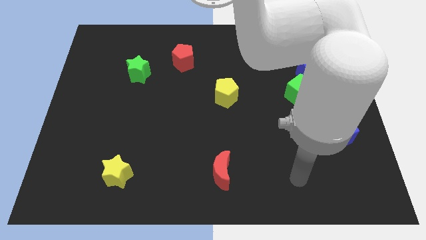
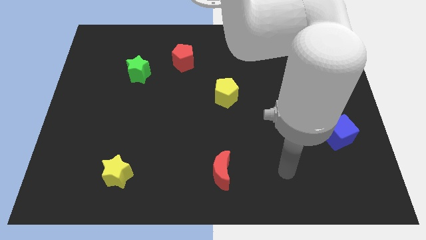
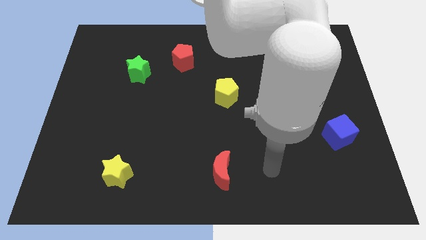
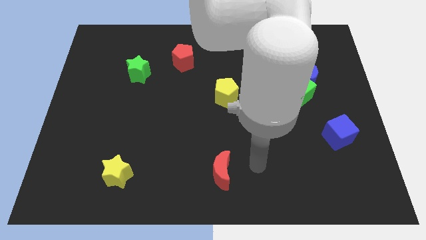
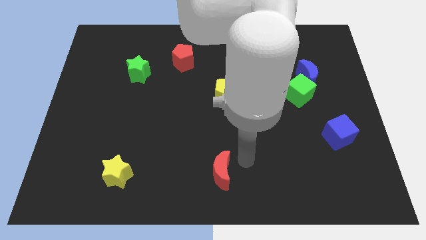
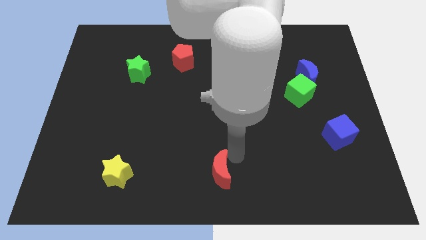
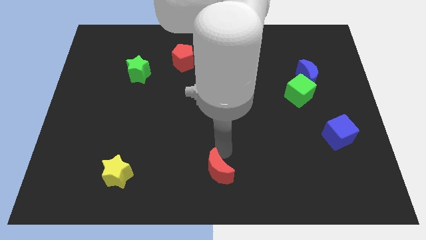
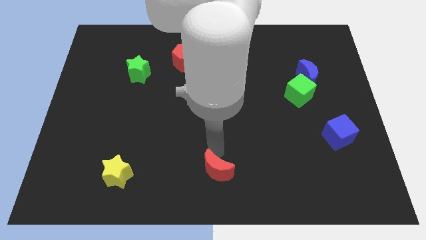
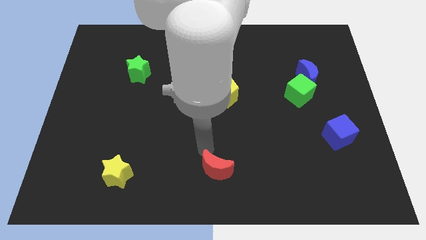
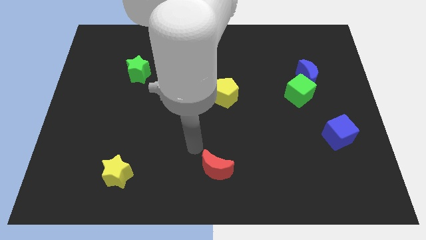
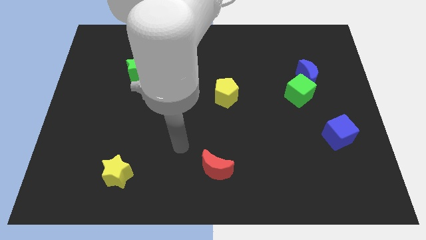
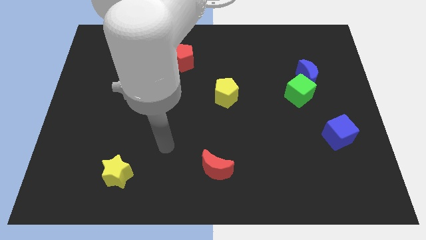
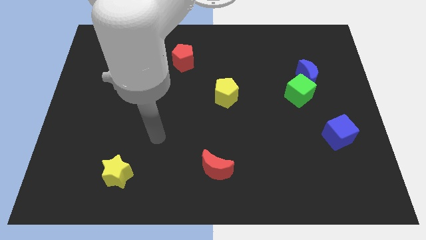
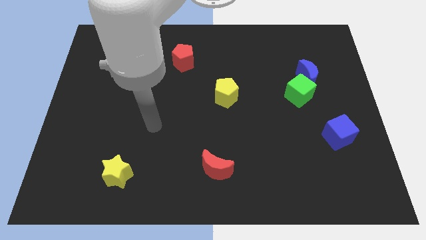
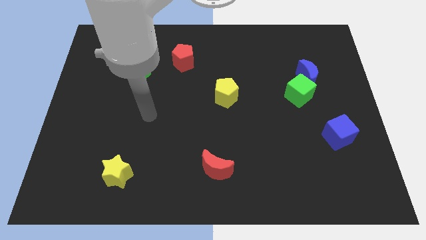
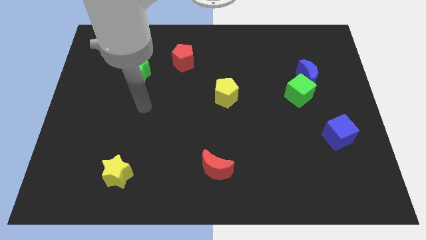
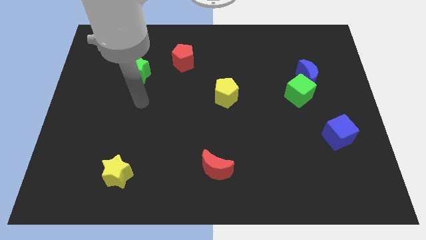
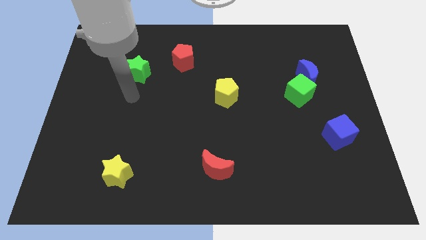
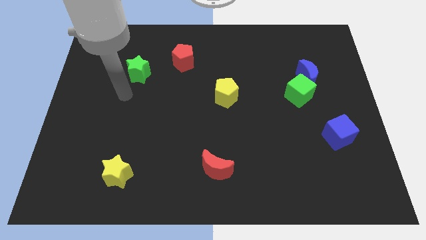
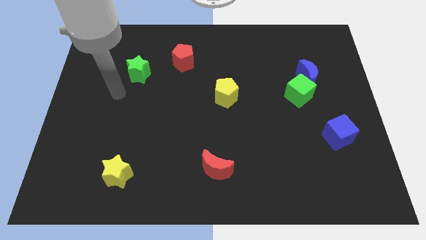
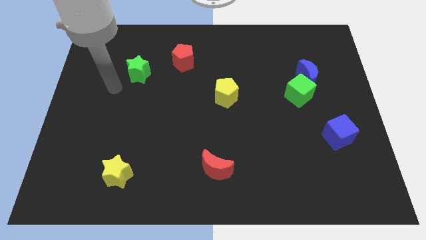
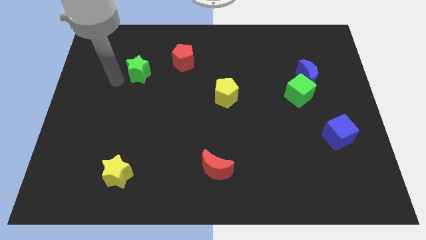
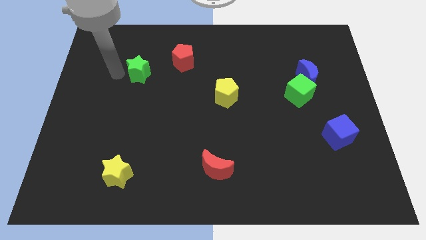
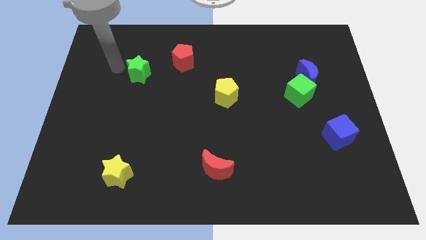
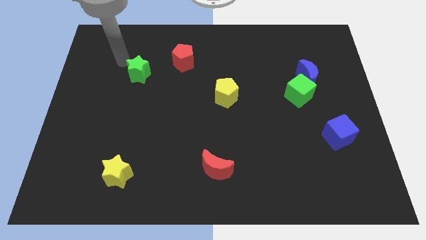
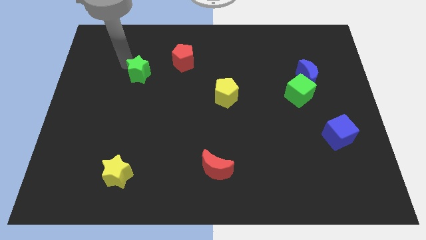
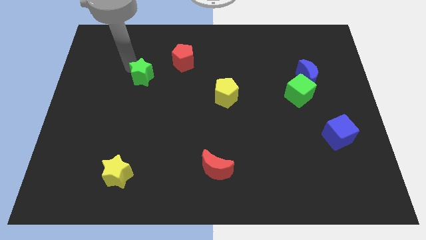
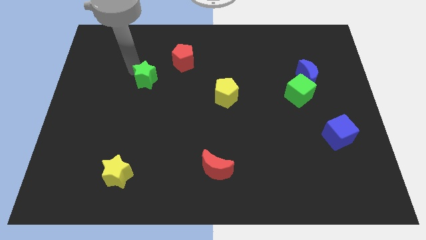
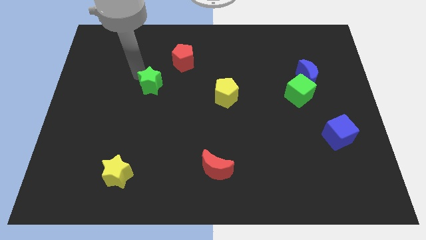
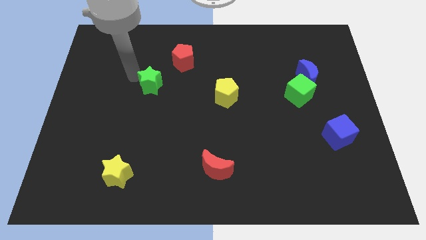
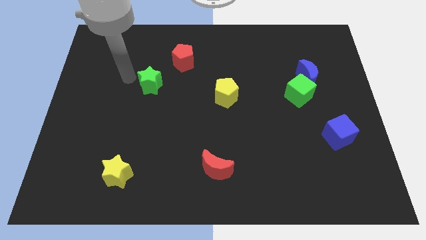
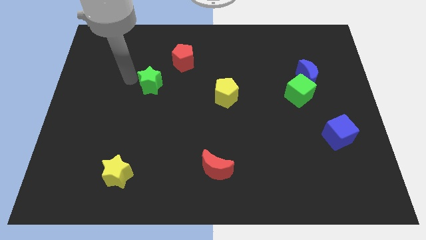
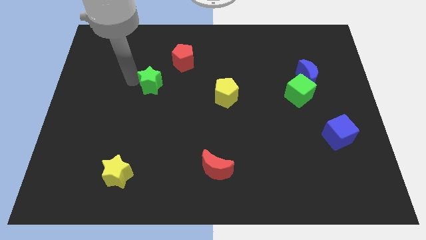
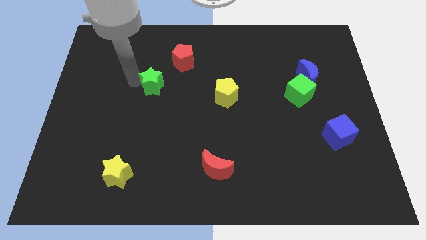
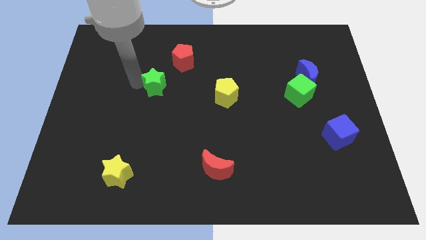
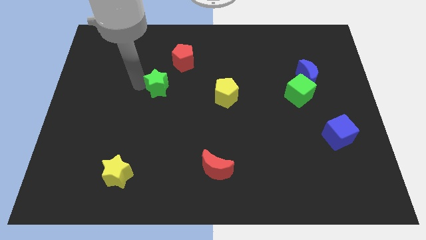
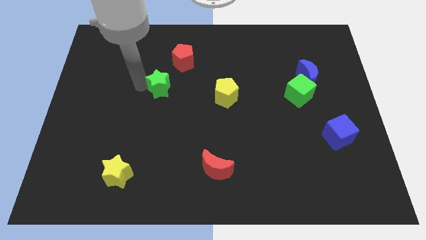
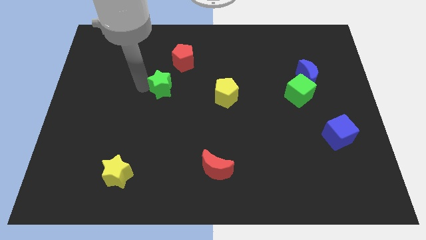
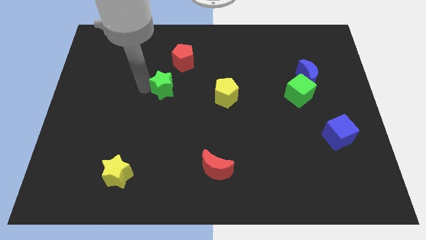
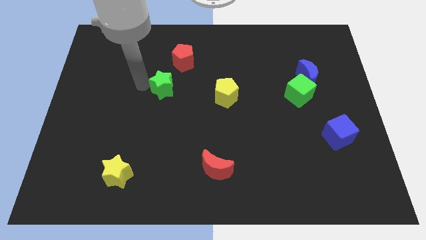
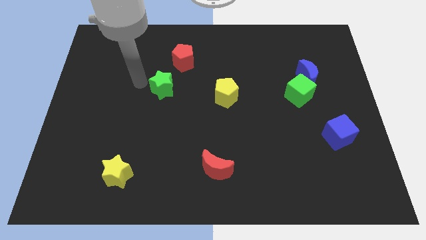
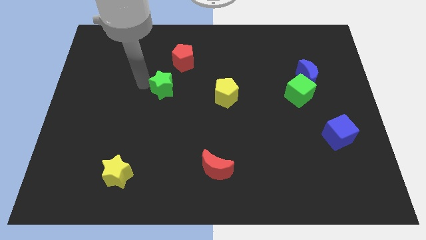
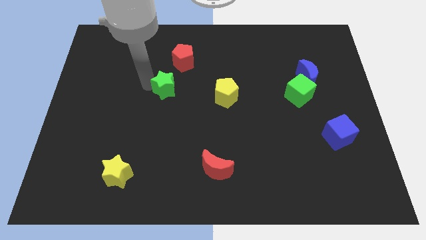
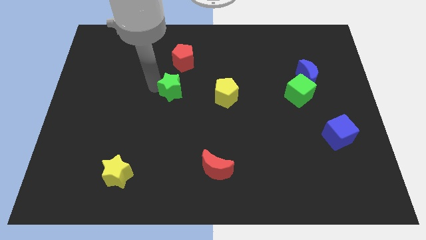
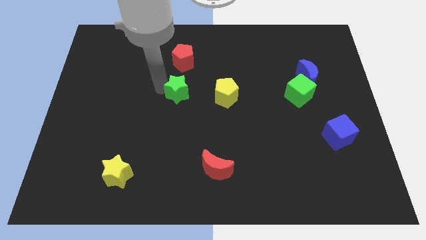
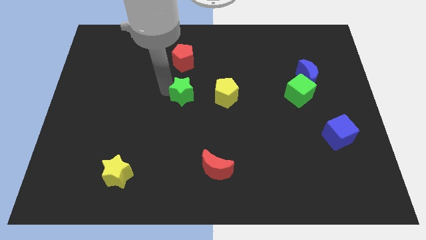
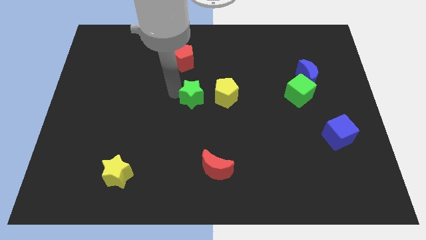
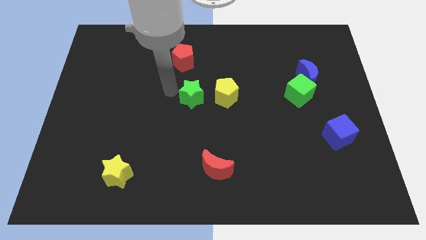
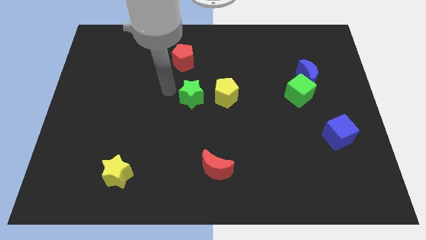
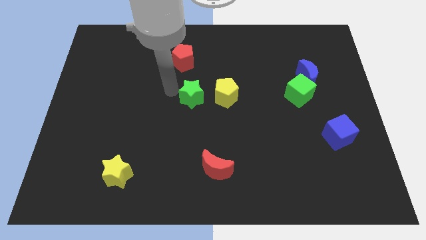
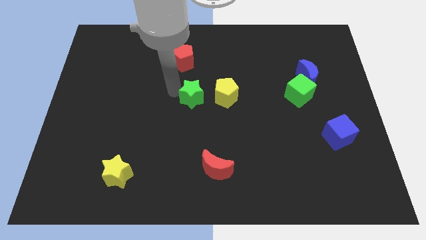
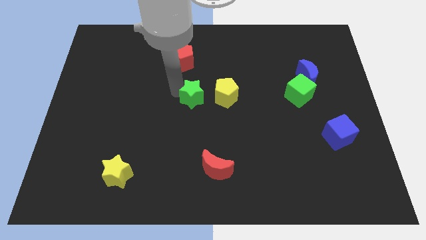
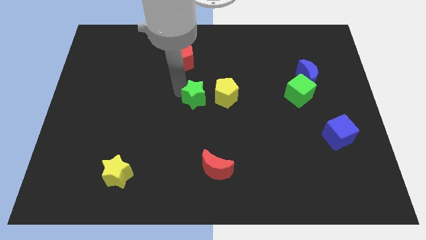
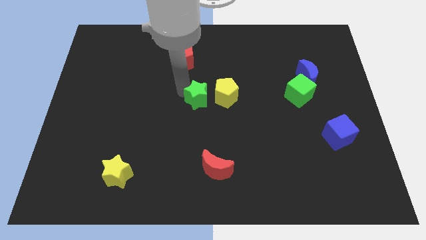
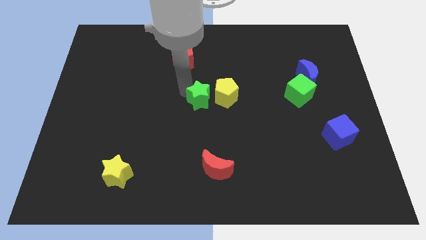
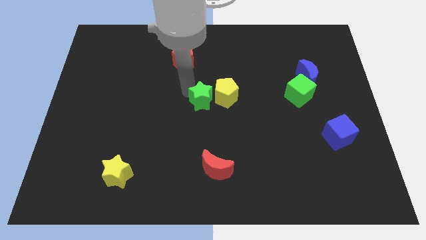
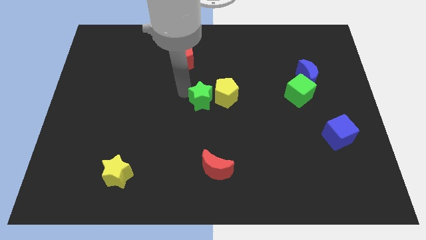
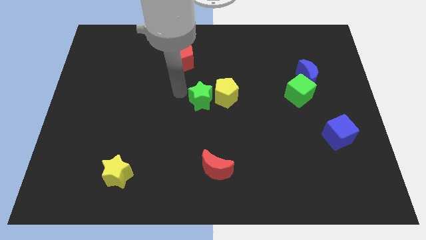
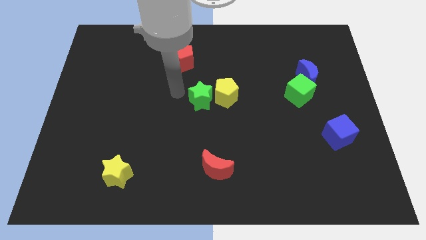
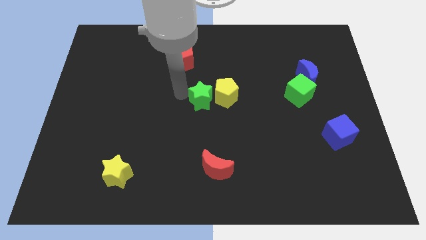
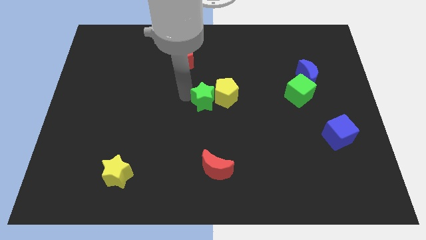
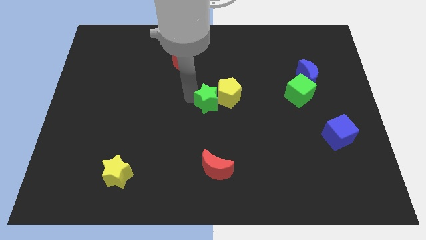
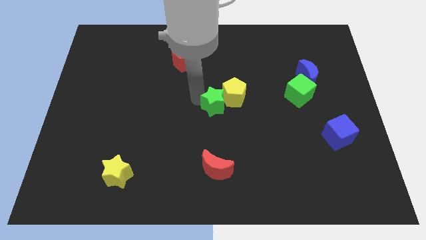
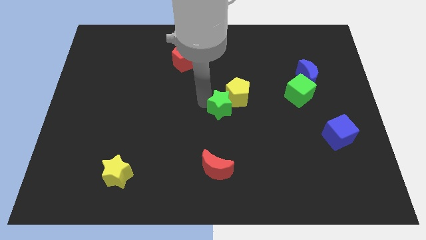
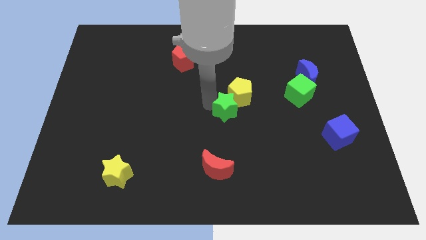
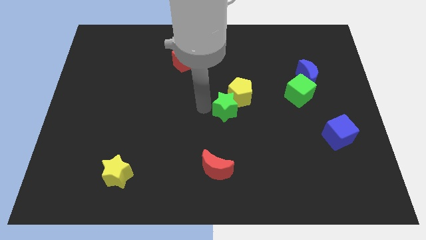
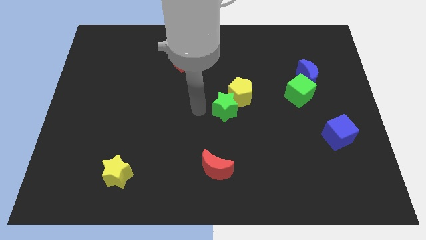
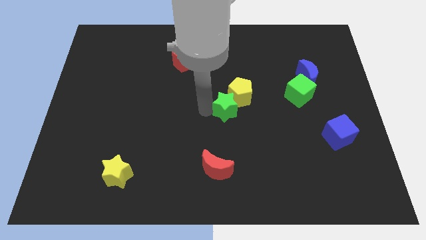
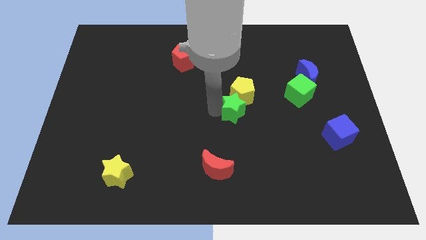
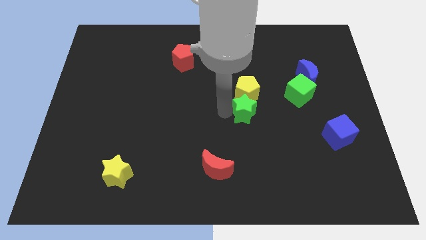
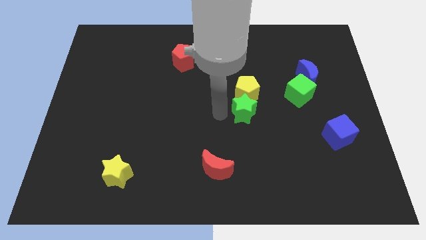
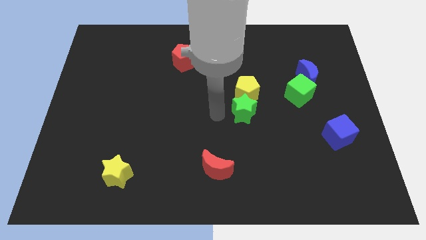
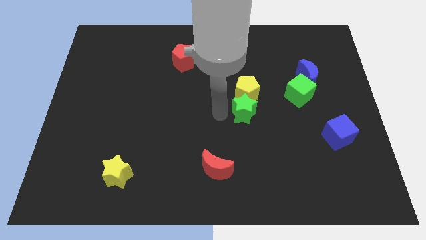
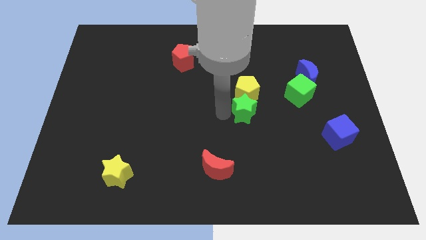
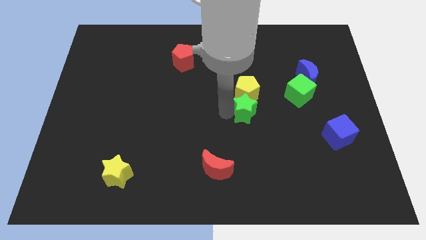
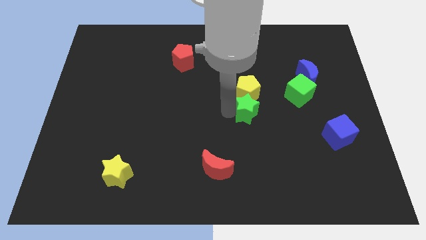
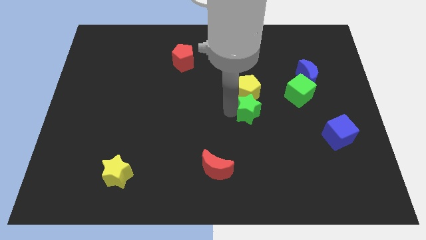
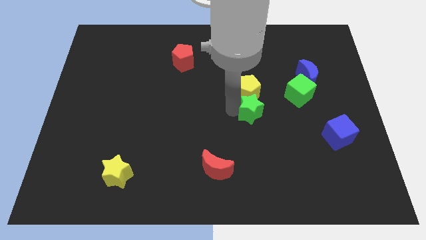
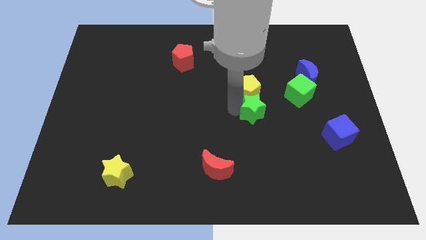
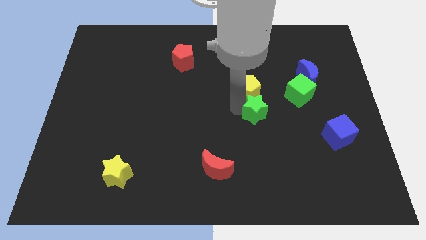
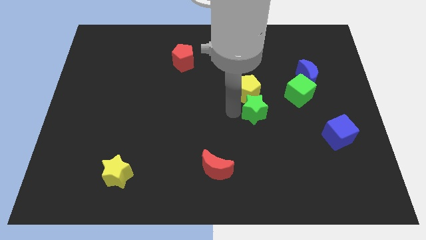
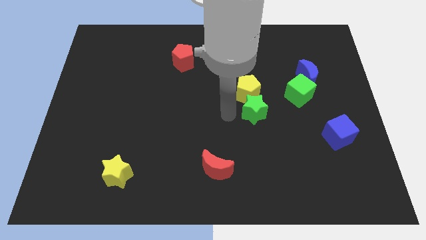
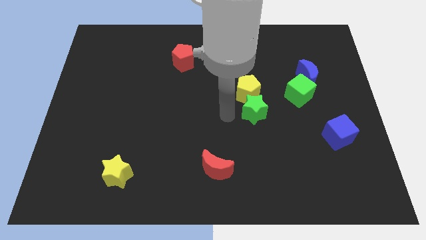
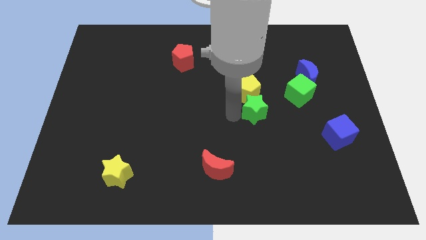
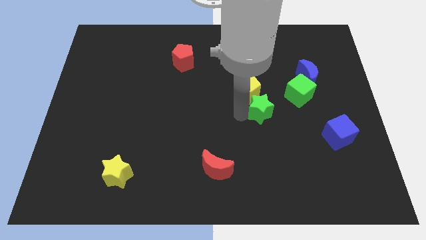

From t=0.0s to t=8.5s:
slide the green star to the bottom left side of the green cube
